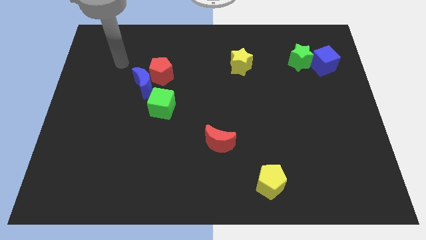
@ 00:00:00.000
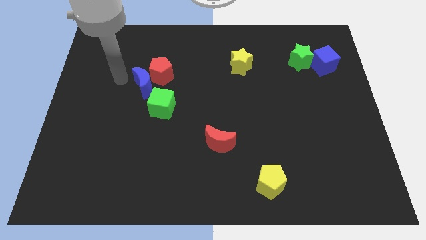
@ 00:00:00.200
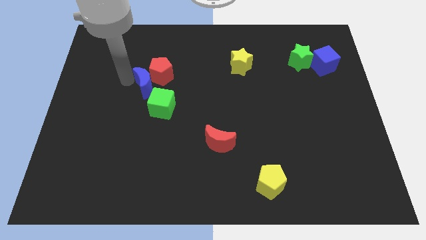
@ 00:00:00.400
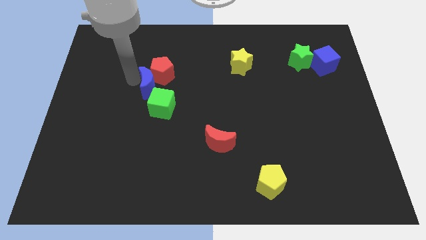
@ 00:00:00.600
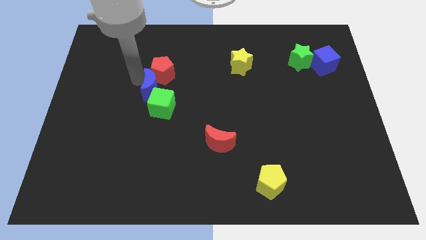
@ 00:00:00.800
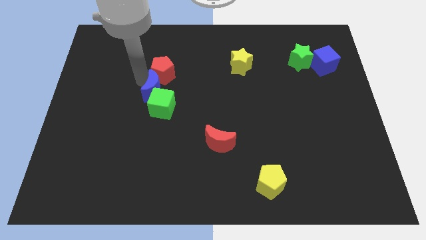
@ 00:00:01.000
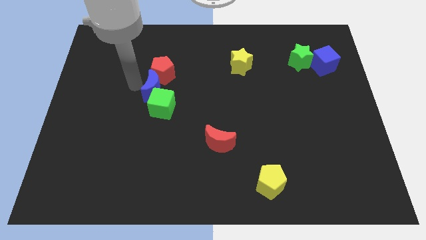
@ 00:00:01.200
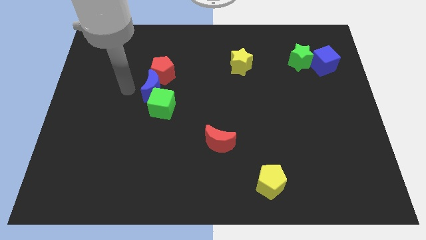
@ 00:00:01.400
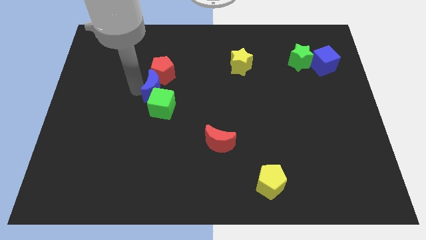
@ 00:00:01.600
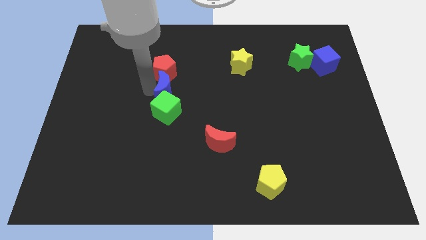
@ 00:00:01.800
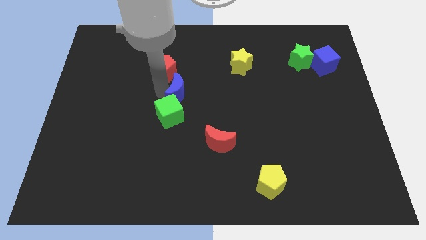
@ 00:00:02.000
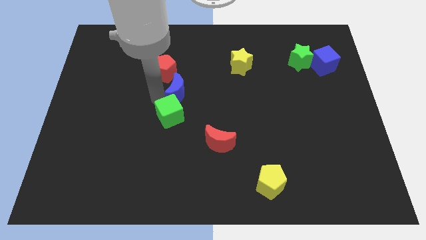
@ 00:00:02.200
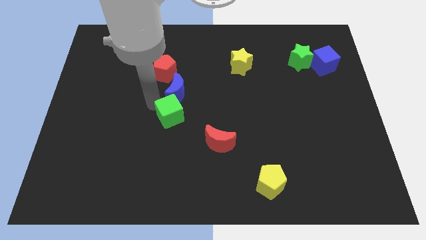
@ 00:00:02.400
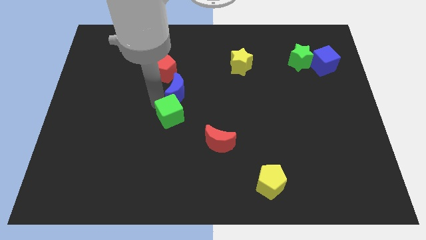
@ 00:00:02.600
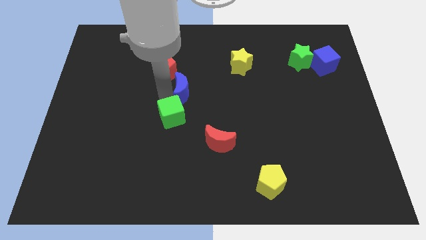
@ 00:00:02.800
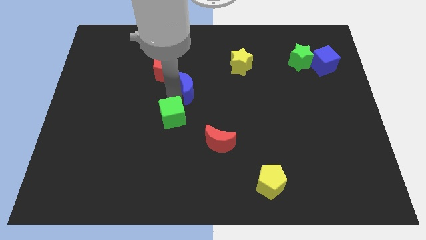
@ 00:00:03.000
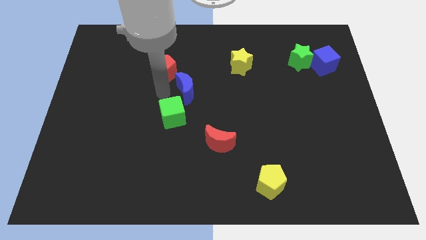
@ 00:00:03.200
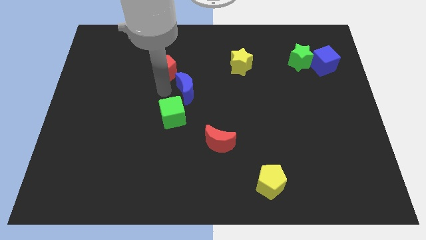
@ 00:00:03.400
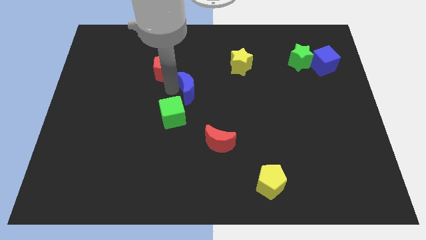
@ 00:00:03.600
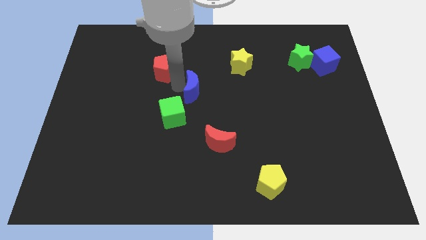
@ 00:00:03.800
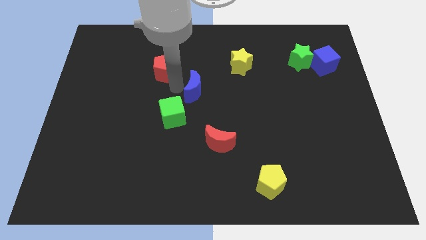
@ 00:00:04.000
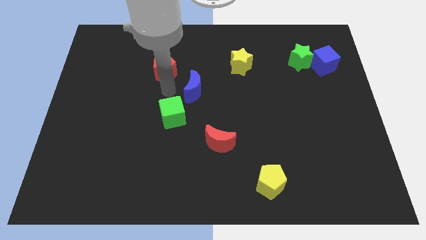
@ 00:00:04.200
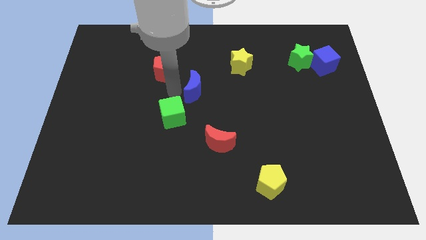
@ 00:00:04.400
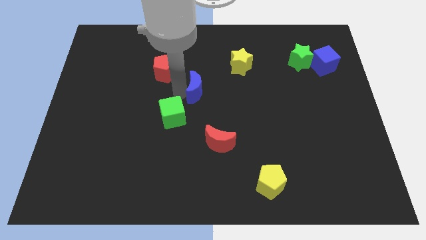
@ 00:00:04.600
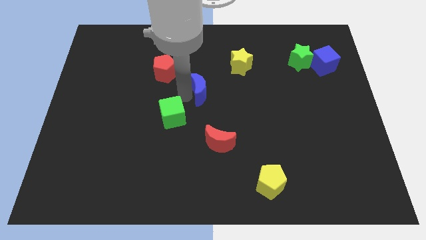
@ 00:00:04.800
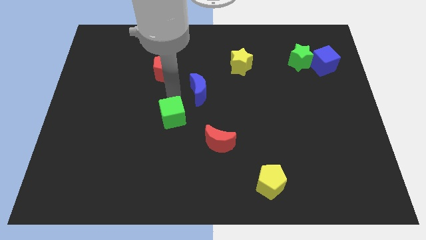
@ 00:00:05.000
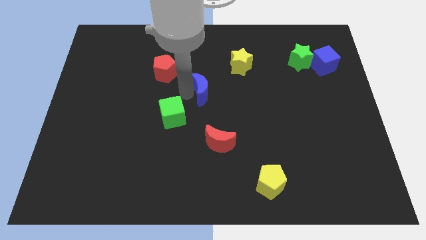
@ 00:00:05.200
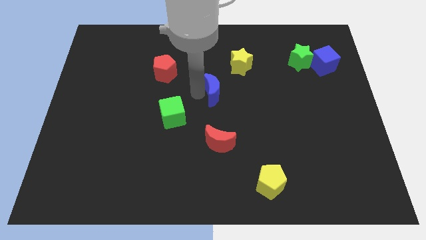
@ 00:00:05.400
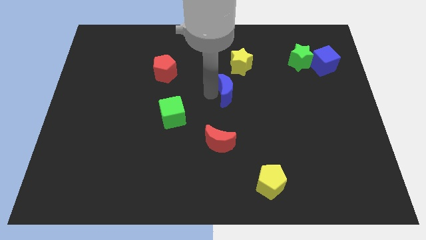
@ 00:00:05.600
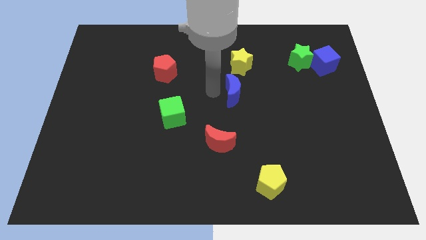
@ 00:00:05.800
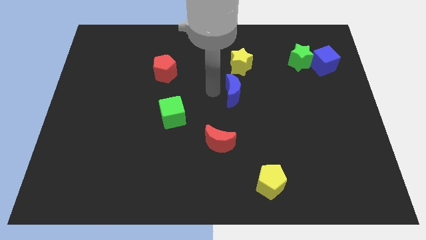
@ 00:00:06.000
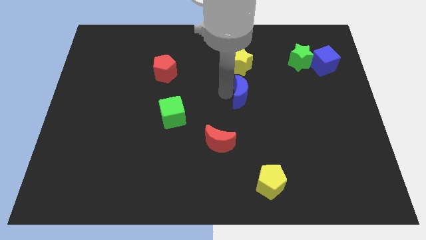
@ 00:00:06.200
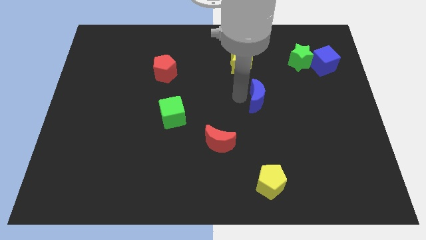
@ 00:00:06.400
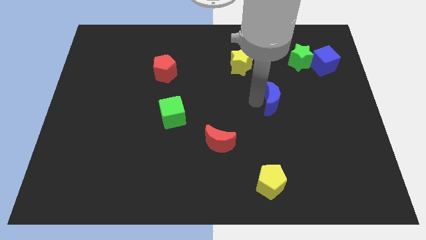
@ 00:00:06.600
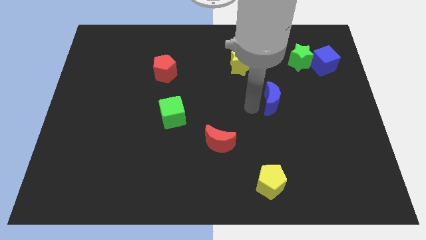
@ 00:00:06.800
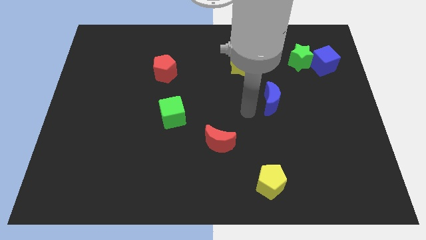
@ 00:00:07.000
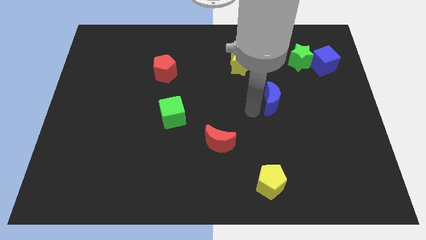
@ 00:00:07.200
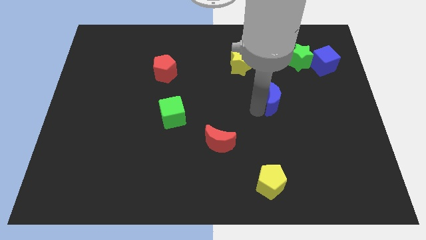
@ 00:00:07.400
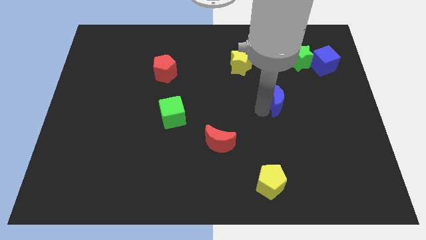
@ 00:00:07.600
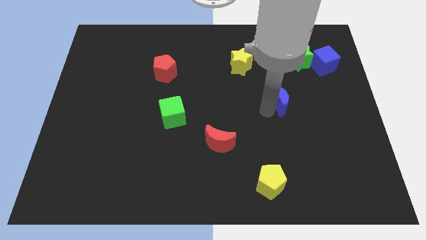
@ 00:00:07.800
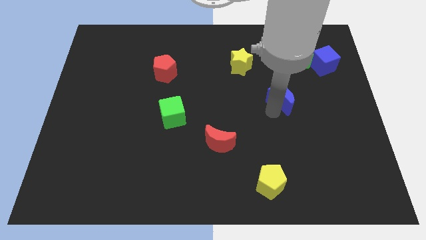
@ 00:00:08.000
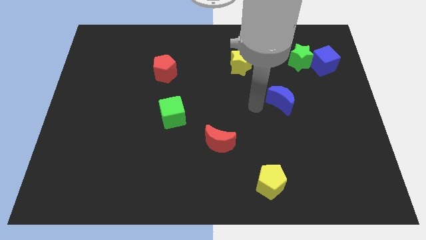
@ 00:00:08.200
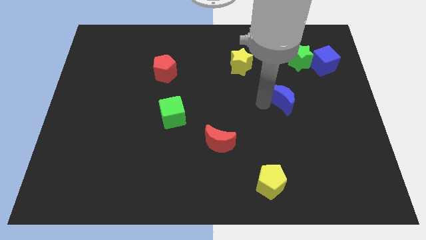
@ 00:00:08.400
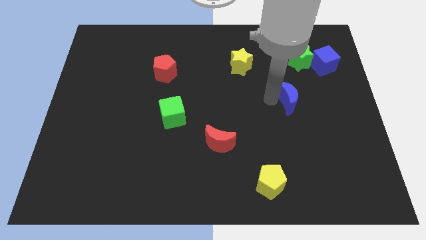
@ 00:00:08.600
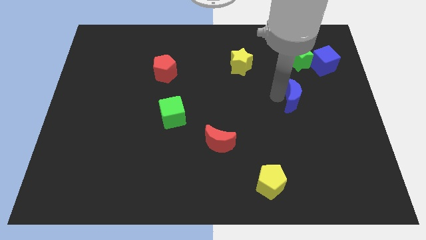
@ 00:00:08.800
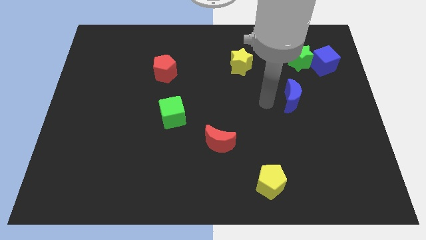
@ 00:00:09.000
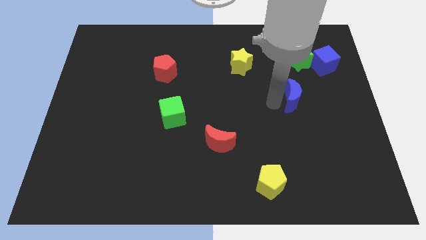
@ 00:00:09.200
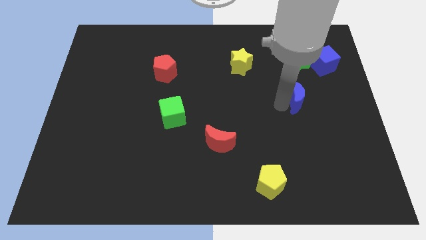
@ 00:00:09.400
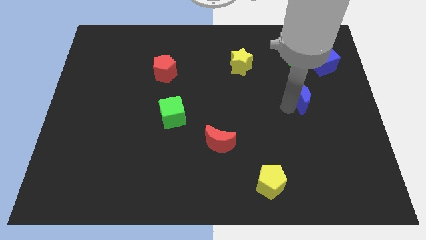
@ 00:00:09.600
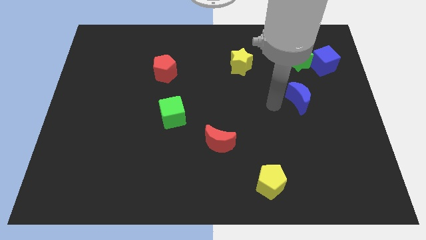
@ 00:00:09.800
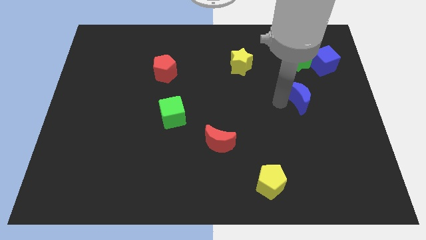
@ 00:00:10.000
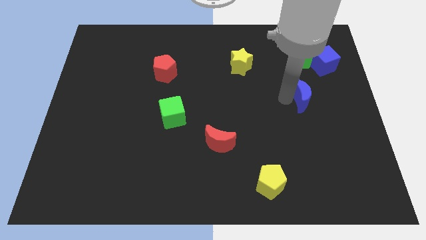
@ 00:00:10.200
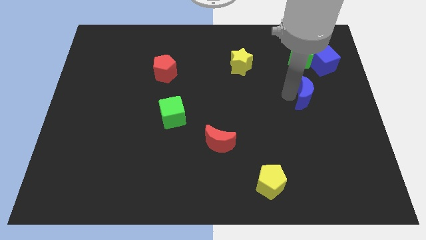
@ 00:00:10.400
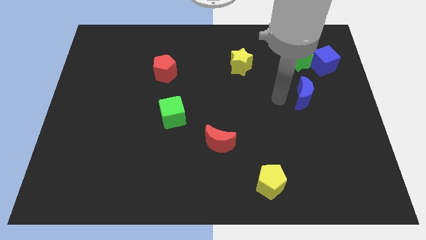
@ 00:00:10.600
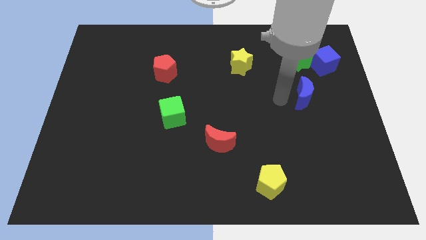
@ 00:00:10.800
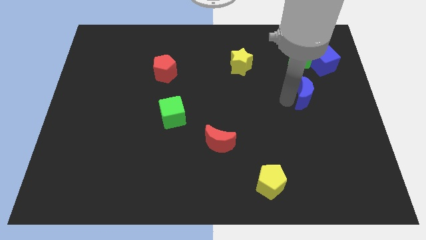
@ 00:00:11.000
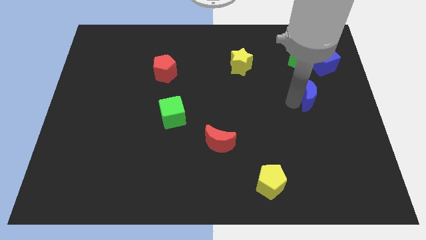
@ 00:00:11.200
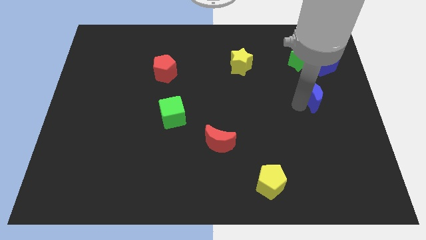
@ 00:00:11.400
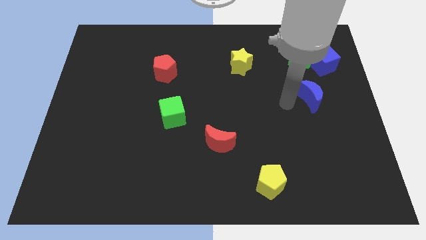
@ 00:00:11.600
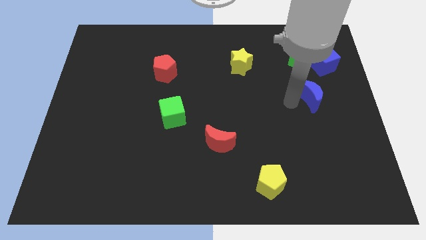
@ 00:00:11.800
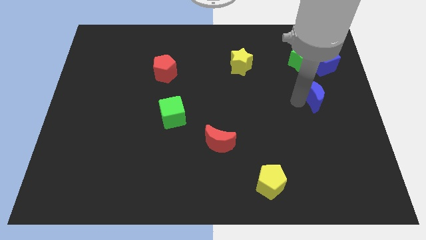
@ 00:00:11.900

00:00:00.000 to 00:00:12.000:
slide the blue moon below the blue cube

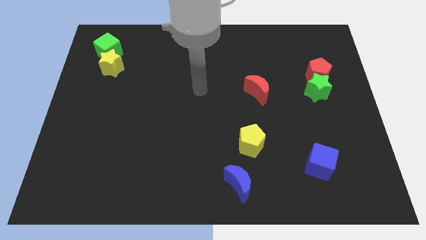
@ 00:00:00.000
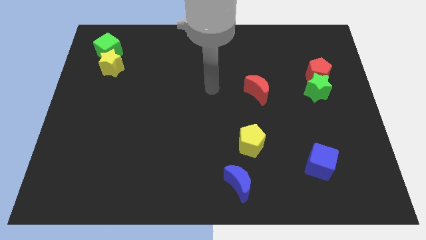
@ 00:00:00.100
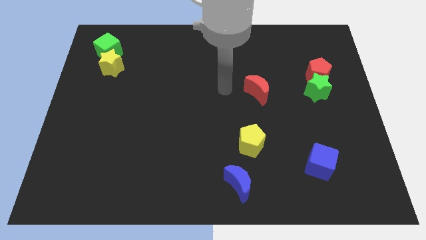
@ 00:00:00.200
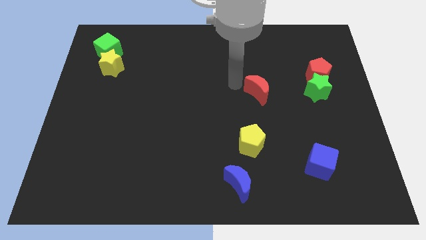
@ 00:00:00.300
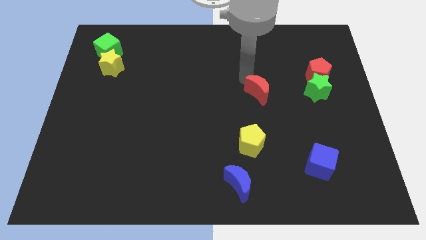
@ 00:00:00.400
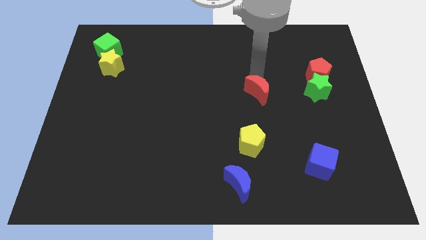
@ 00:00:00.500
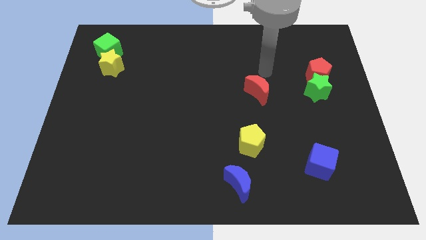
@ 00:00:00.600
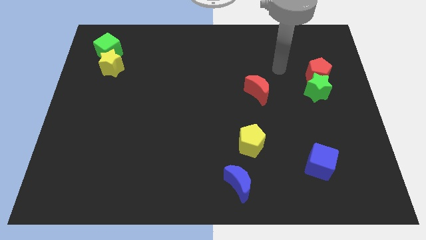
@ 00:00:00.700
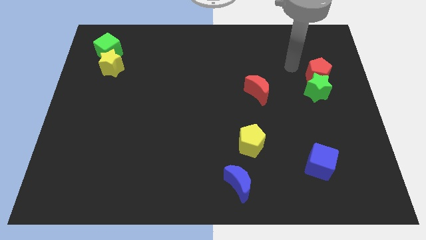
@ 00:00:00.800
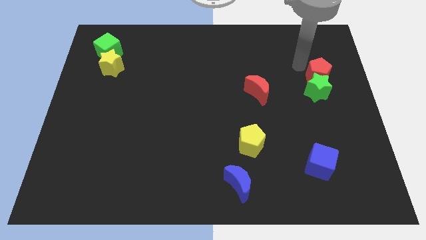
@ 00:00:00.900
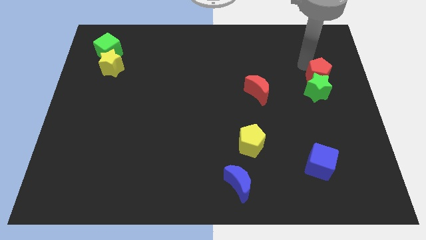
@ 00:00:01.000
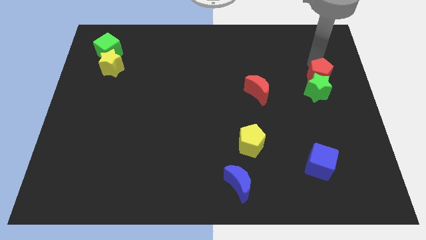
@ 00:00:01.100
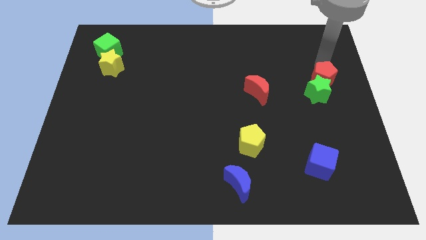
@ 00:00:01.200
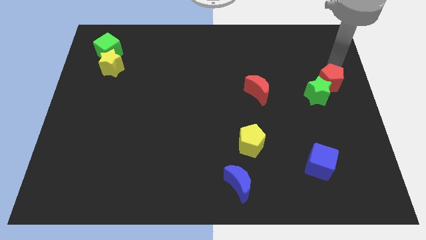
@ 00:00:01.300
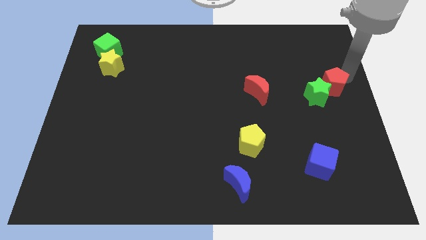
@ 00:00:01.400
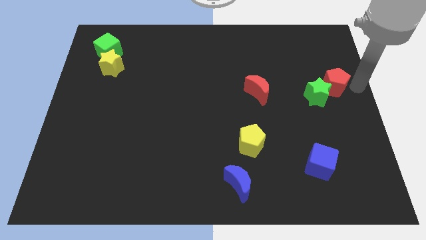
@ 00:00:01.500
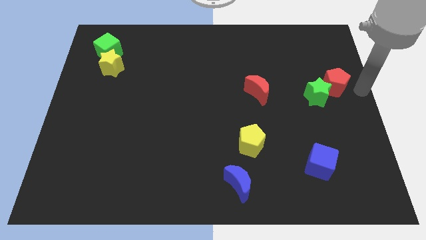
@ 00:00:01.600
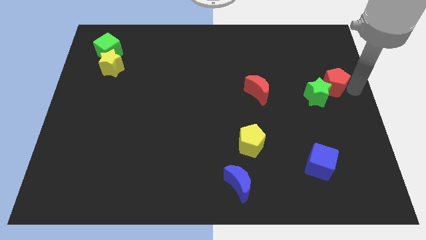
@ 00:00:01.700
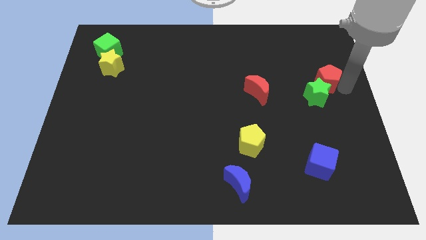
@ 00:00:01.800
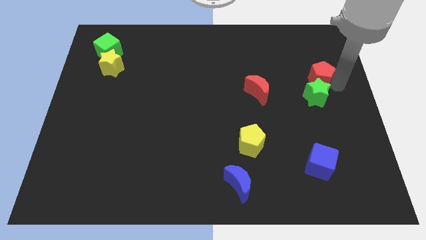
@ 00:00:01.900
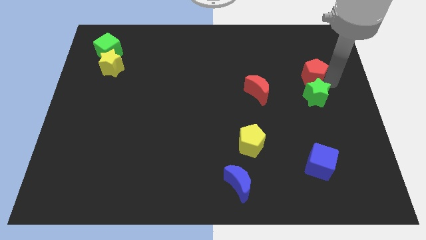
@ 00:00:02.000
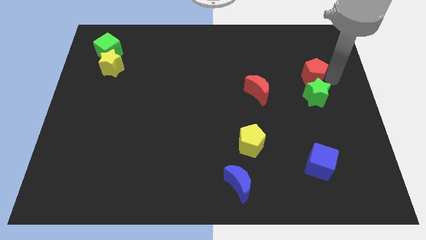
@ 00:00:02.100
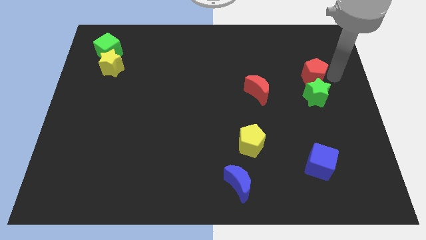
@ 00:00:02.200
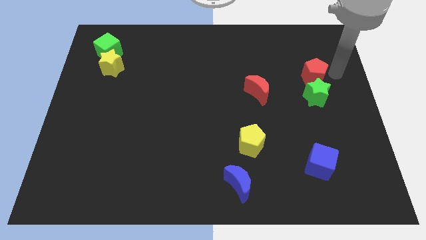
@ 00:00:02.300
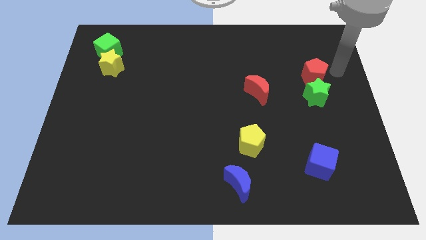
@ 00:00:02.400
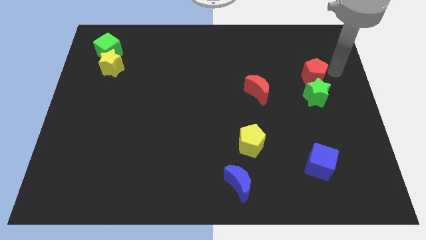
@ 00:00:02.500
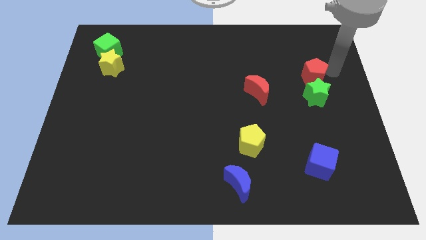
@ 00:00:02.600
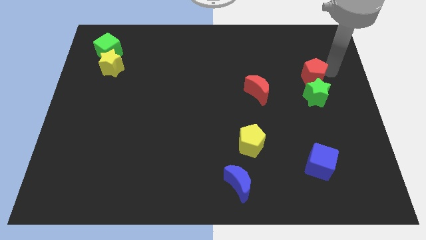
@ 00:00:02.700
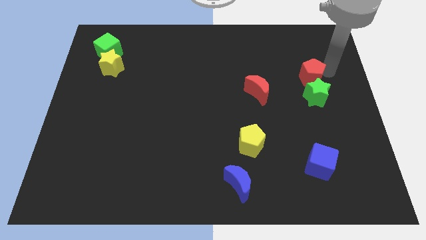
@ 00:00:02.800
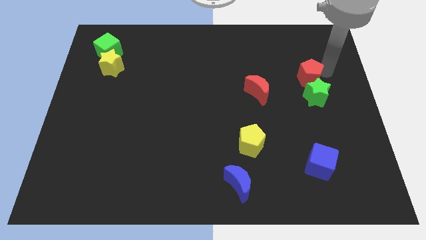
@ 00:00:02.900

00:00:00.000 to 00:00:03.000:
move the red pentagon right of the red moon
